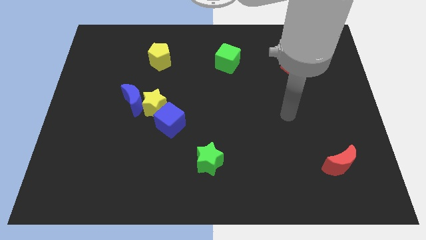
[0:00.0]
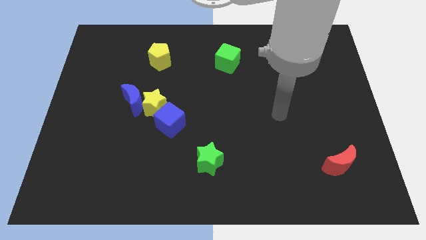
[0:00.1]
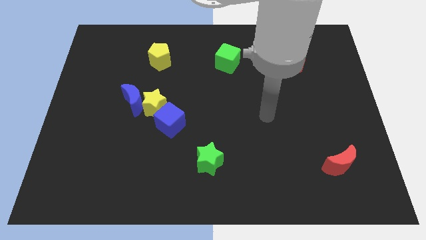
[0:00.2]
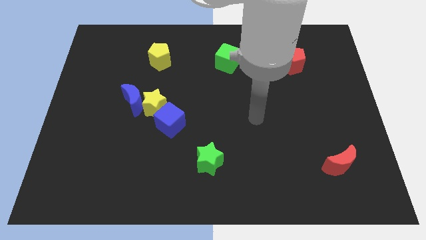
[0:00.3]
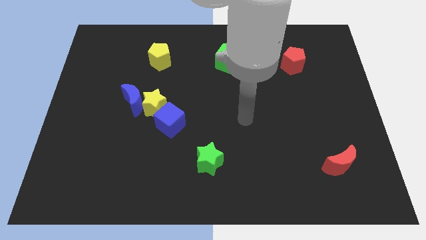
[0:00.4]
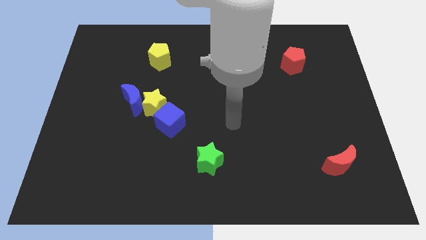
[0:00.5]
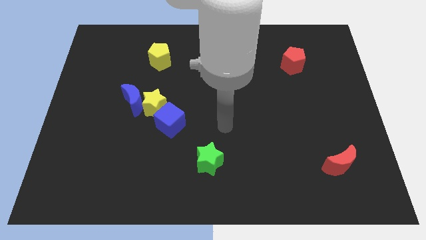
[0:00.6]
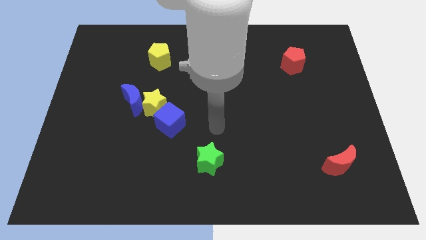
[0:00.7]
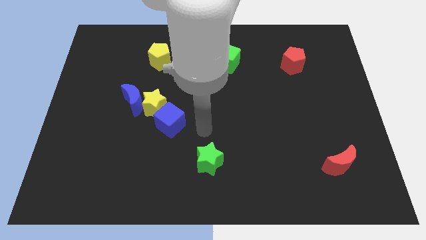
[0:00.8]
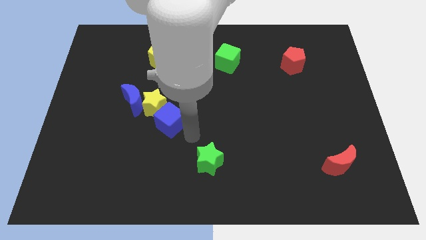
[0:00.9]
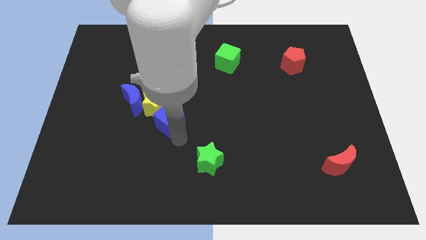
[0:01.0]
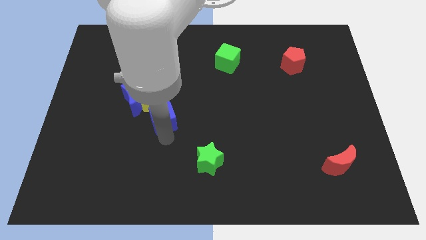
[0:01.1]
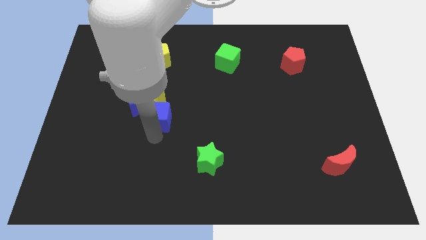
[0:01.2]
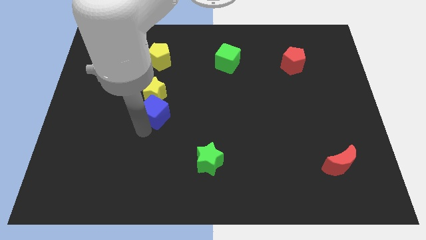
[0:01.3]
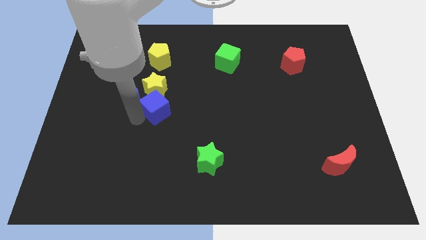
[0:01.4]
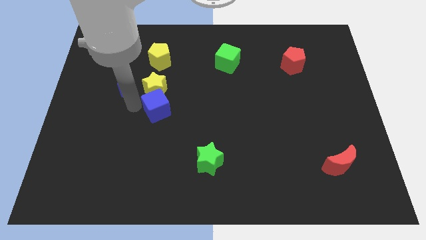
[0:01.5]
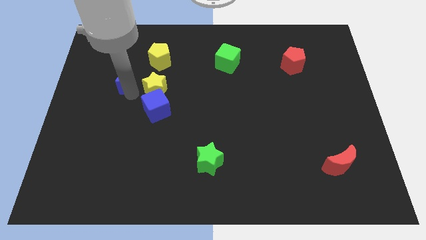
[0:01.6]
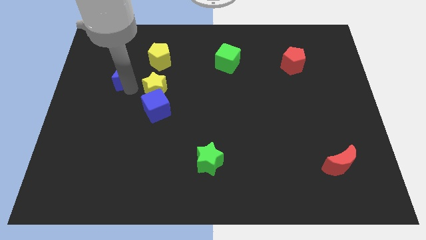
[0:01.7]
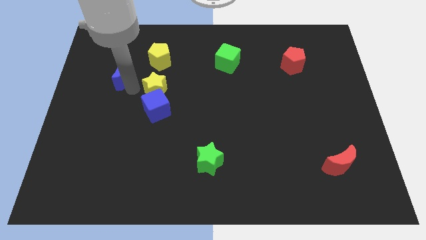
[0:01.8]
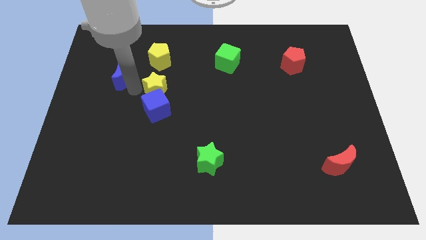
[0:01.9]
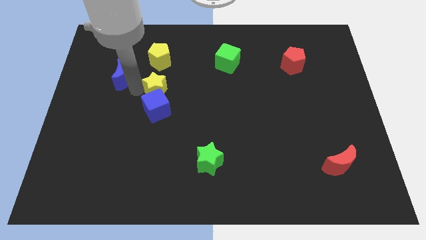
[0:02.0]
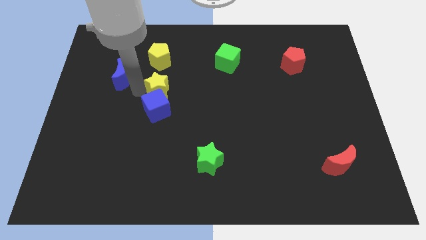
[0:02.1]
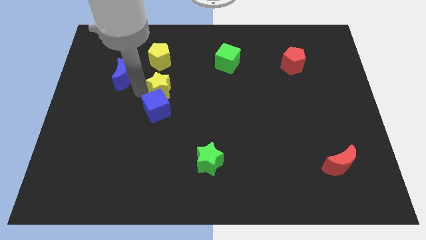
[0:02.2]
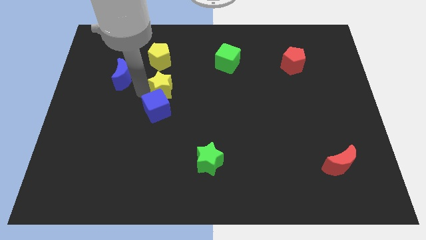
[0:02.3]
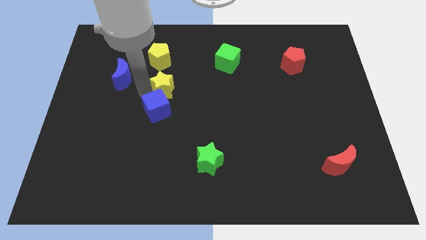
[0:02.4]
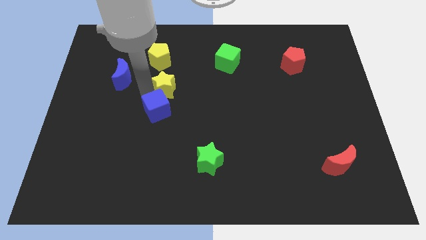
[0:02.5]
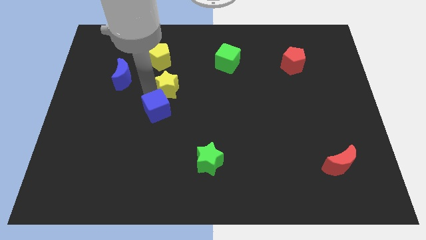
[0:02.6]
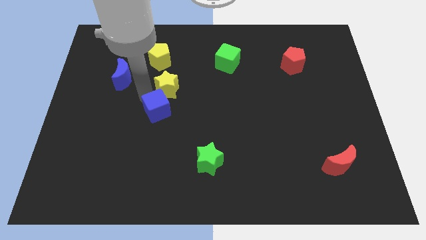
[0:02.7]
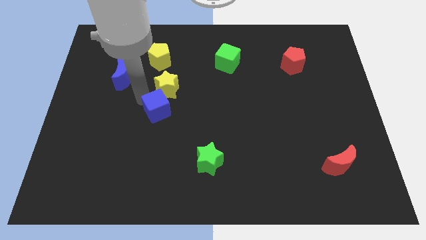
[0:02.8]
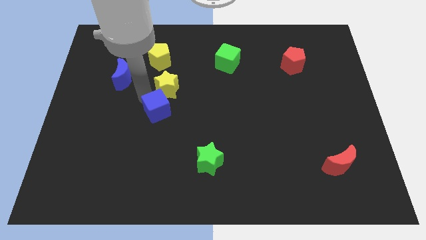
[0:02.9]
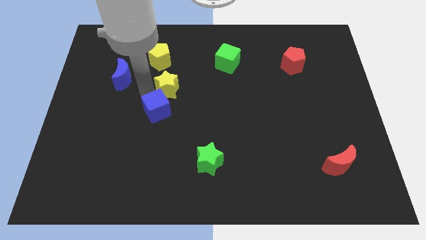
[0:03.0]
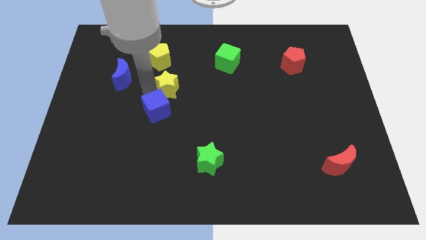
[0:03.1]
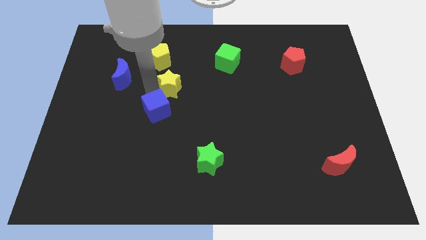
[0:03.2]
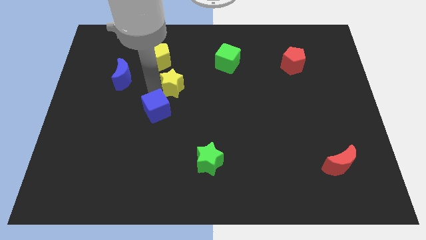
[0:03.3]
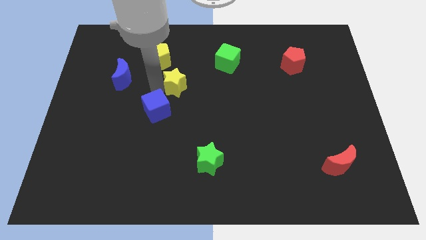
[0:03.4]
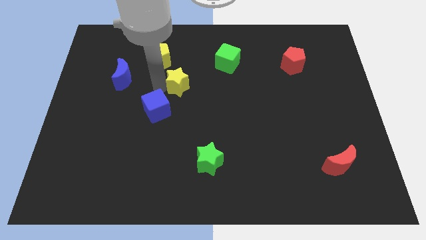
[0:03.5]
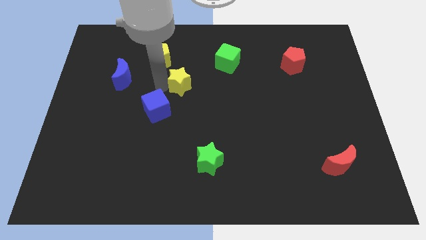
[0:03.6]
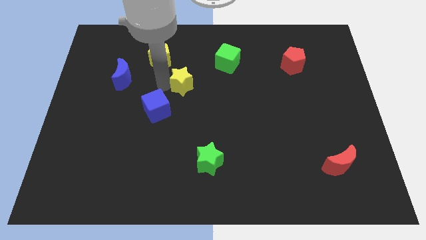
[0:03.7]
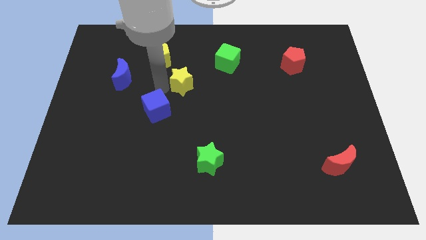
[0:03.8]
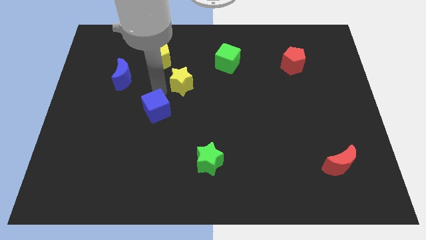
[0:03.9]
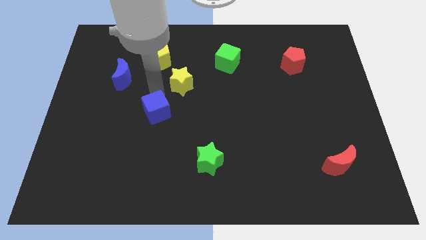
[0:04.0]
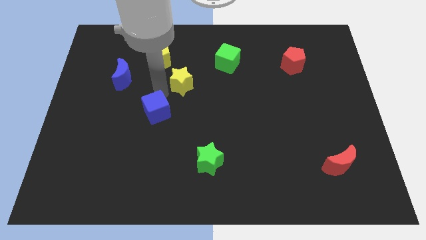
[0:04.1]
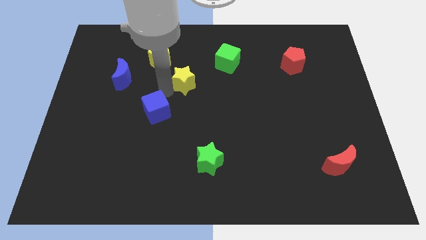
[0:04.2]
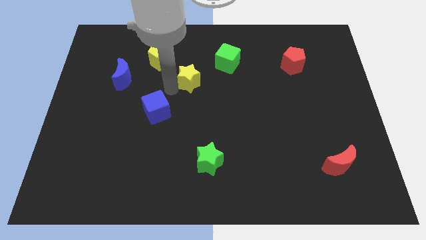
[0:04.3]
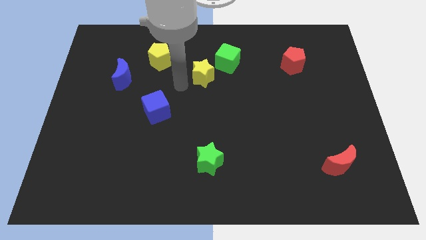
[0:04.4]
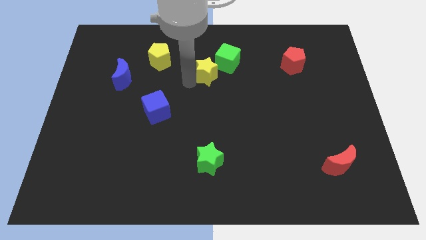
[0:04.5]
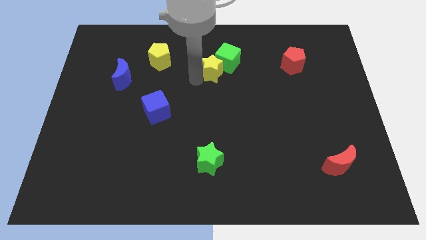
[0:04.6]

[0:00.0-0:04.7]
slide the yellow star towards the green cube

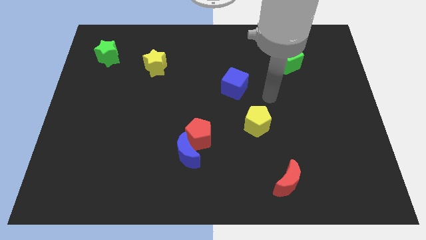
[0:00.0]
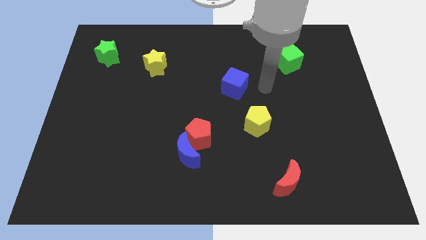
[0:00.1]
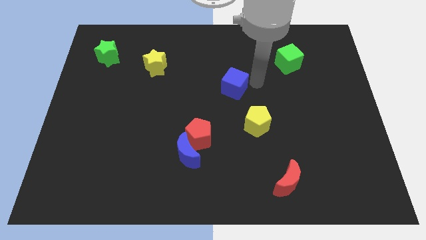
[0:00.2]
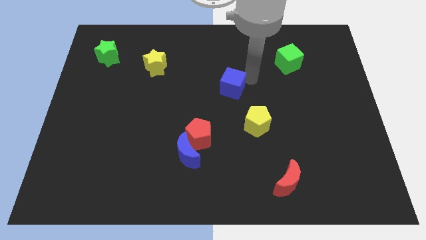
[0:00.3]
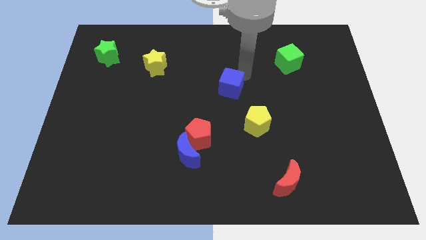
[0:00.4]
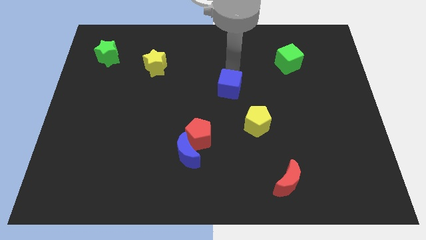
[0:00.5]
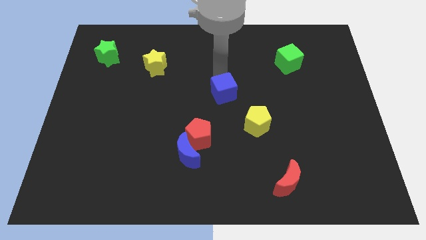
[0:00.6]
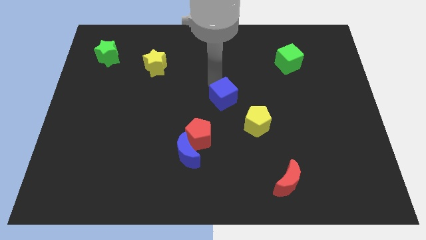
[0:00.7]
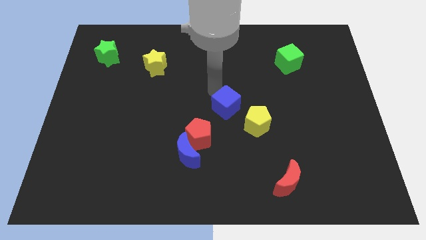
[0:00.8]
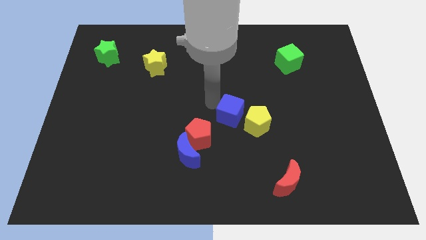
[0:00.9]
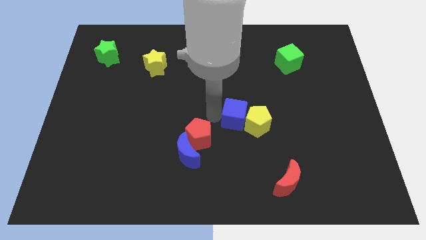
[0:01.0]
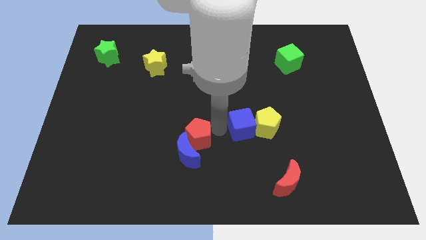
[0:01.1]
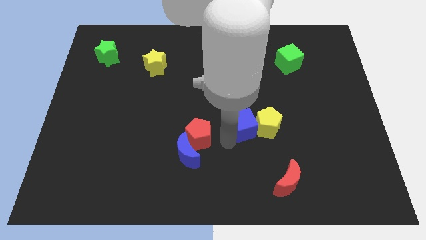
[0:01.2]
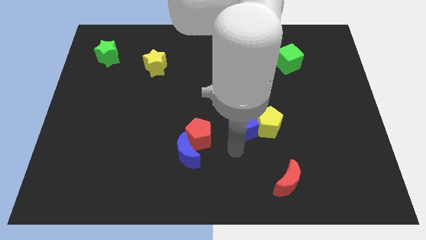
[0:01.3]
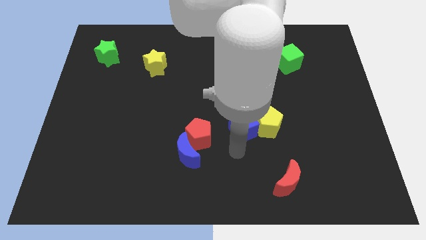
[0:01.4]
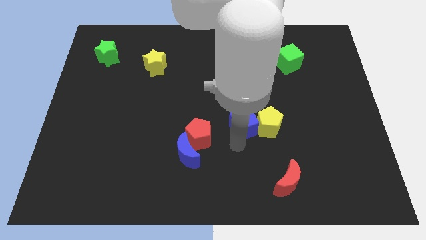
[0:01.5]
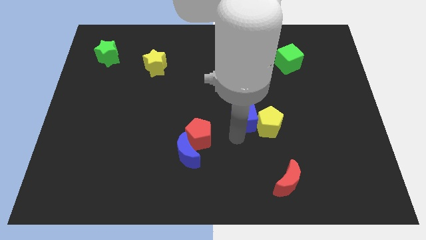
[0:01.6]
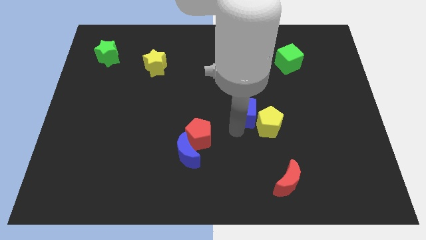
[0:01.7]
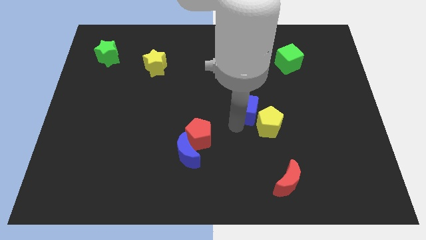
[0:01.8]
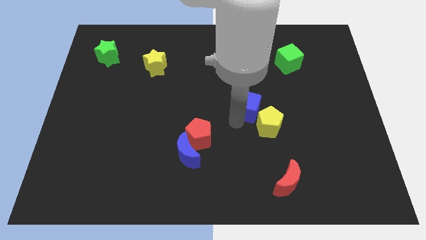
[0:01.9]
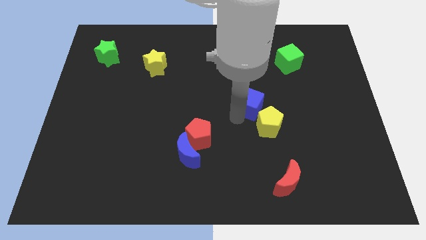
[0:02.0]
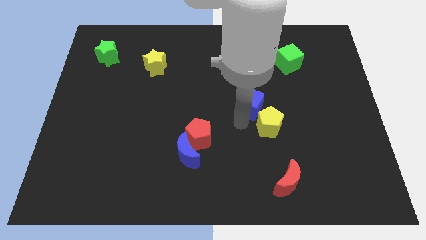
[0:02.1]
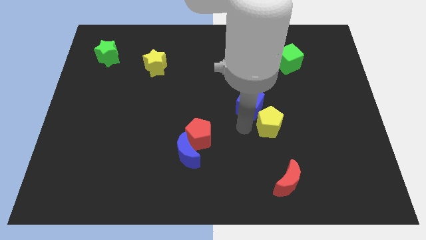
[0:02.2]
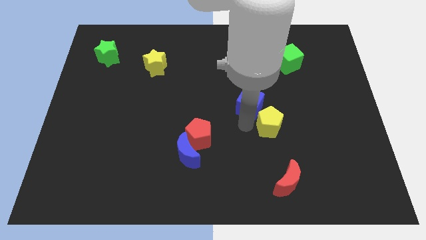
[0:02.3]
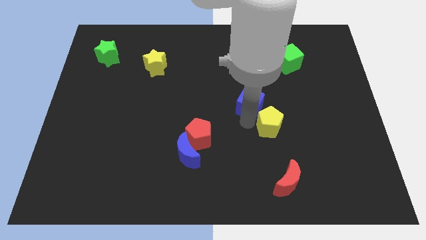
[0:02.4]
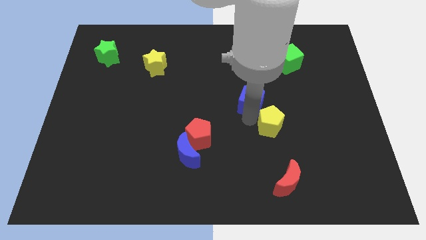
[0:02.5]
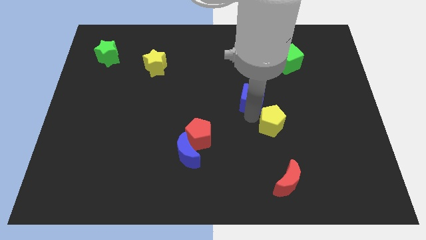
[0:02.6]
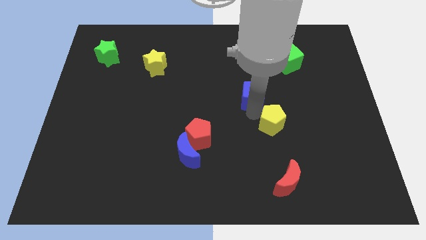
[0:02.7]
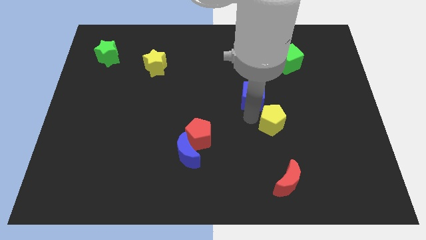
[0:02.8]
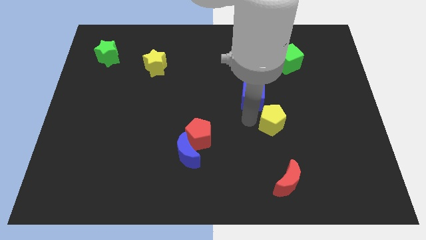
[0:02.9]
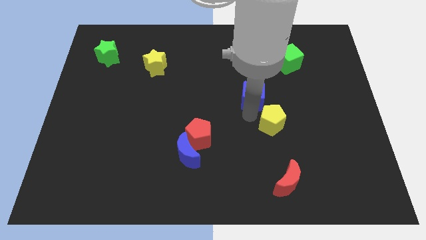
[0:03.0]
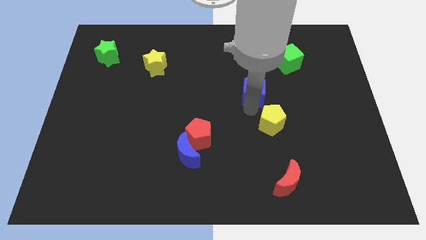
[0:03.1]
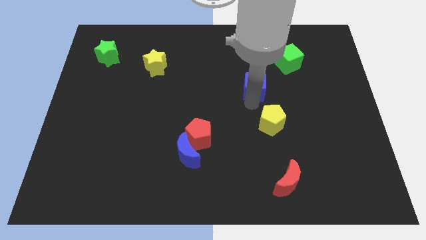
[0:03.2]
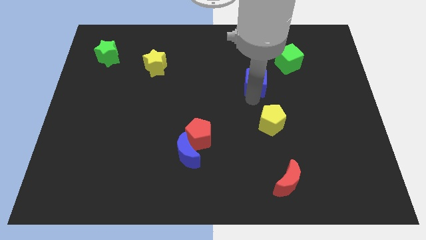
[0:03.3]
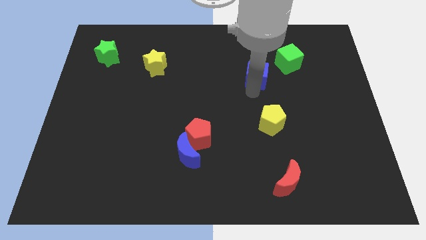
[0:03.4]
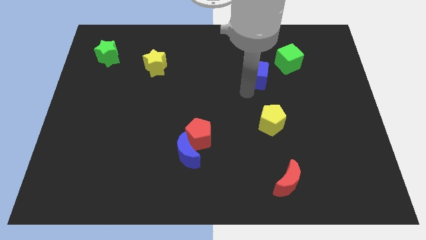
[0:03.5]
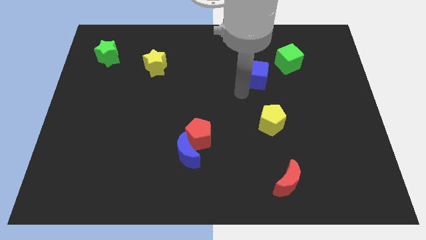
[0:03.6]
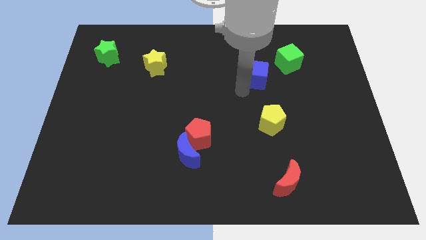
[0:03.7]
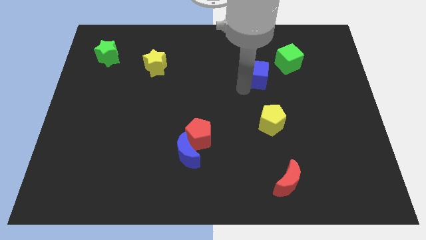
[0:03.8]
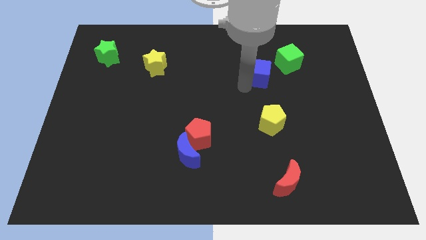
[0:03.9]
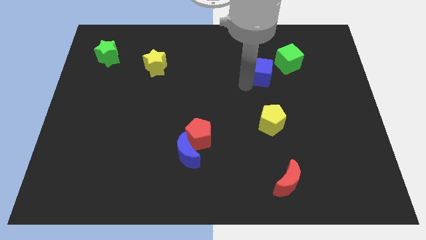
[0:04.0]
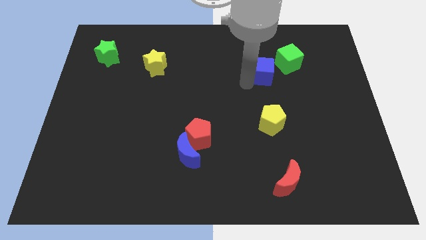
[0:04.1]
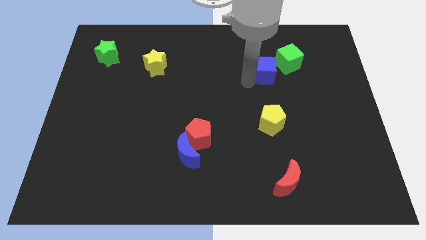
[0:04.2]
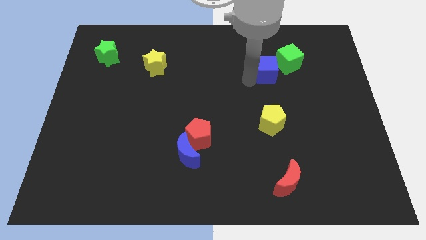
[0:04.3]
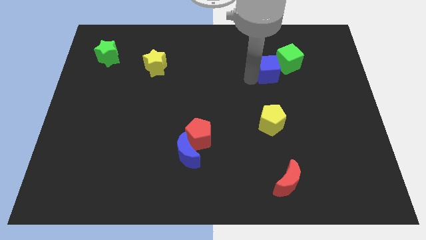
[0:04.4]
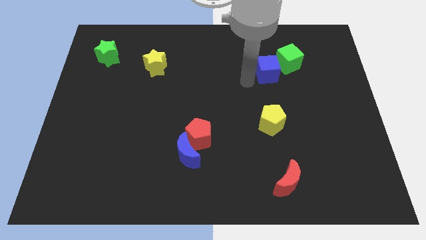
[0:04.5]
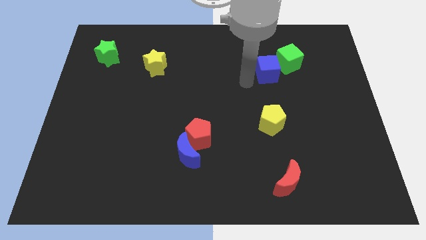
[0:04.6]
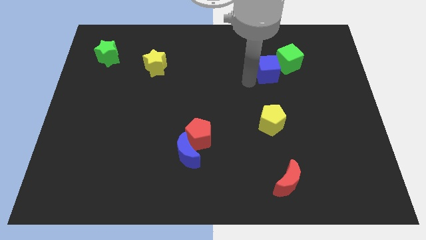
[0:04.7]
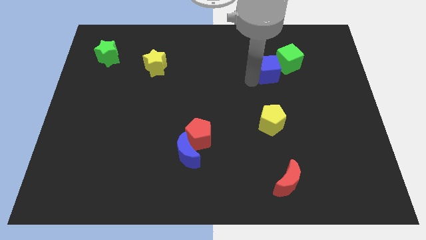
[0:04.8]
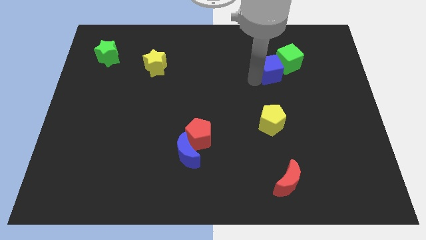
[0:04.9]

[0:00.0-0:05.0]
move the blue cube to the green cube
